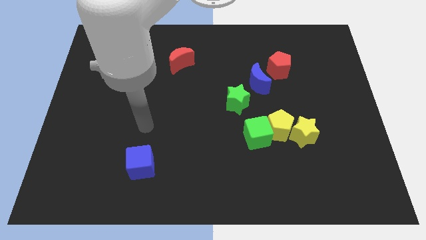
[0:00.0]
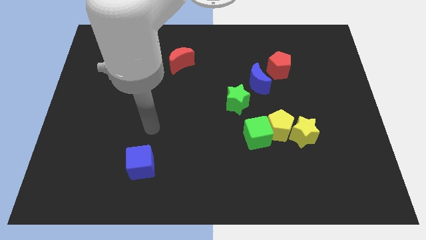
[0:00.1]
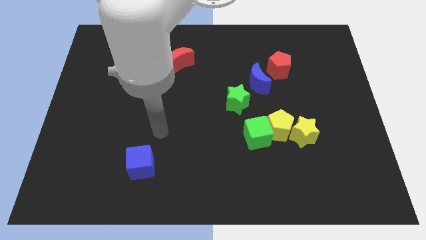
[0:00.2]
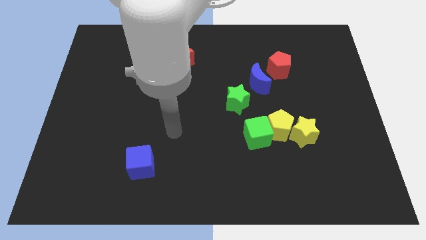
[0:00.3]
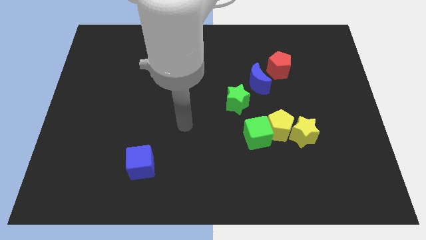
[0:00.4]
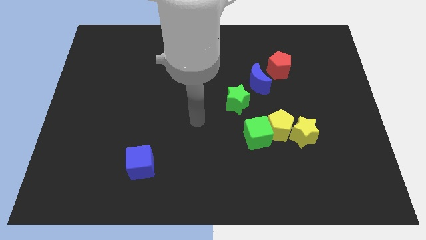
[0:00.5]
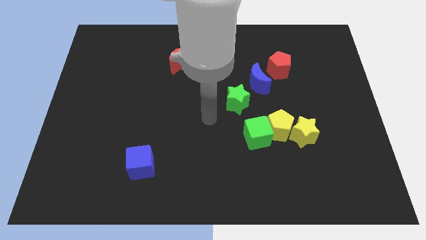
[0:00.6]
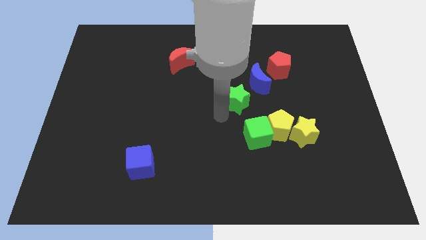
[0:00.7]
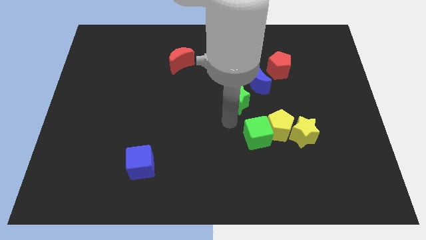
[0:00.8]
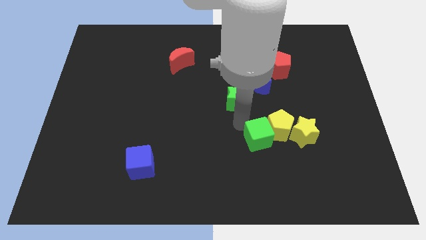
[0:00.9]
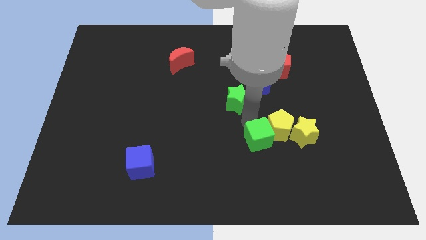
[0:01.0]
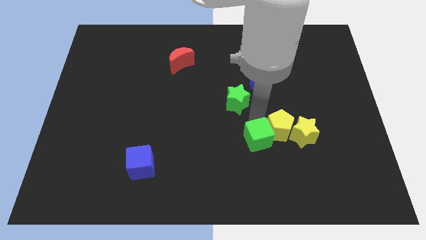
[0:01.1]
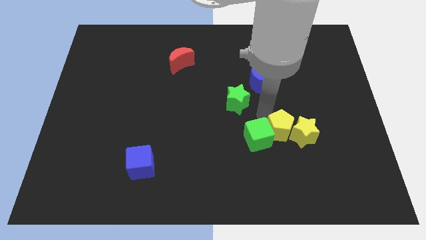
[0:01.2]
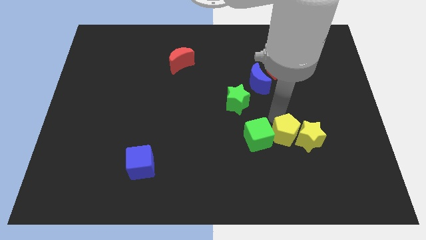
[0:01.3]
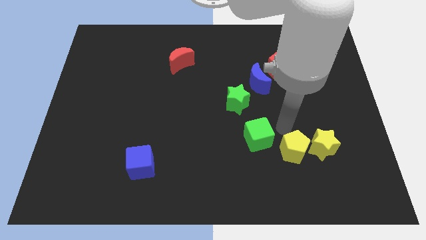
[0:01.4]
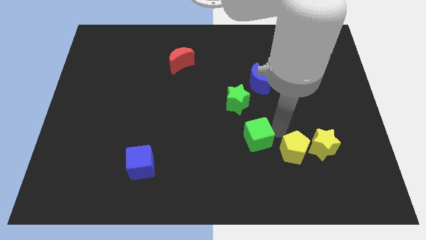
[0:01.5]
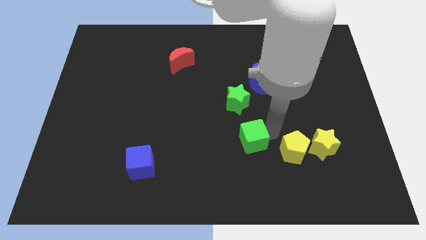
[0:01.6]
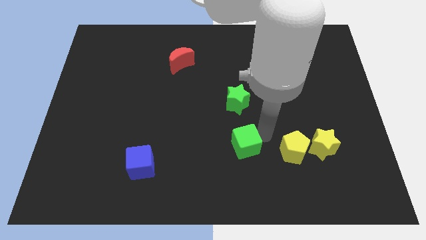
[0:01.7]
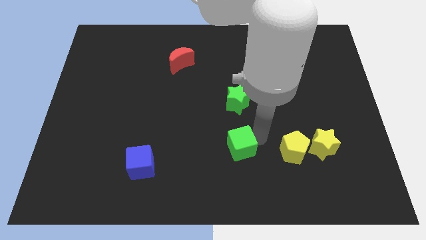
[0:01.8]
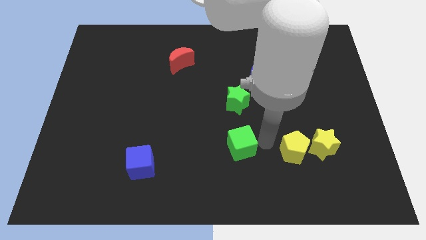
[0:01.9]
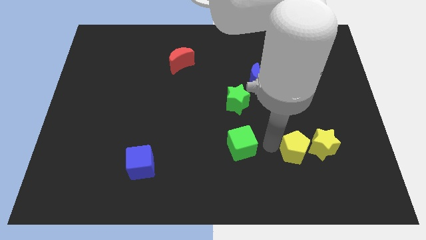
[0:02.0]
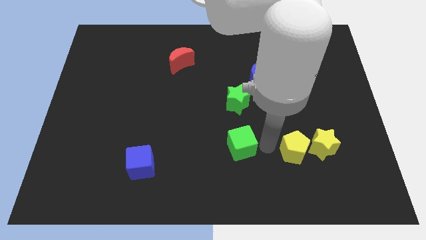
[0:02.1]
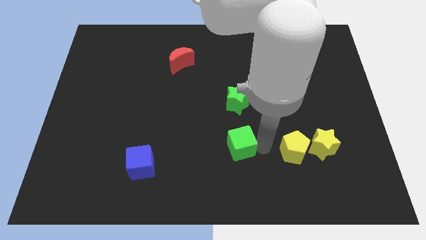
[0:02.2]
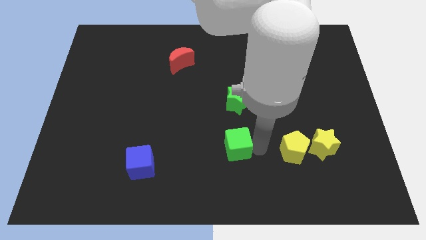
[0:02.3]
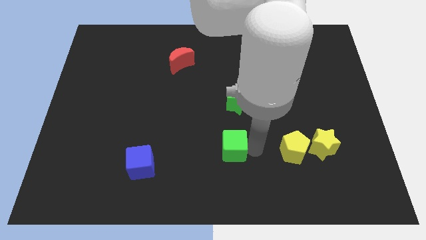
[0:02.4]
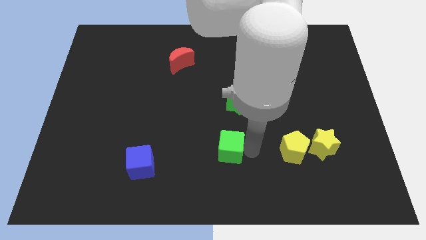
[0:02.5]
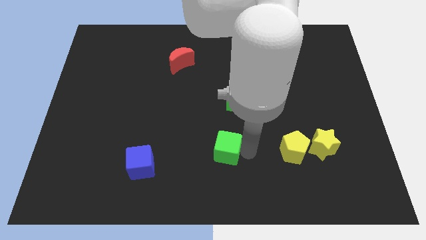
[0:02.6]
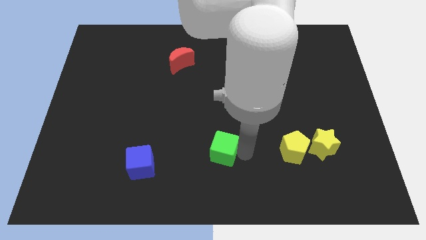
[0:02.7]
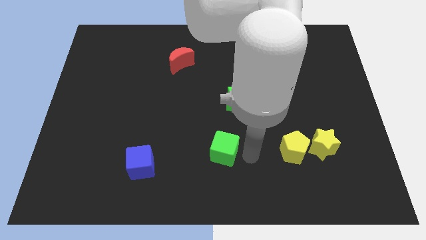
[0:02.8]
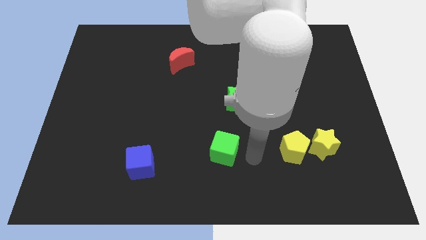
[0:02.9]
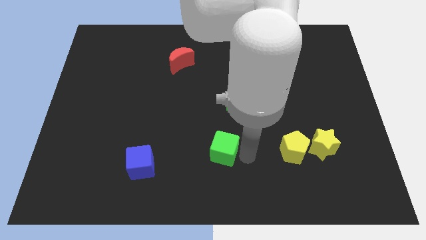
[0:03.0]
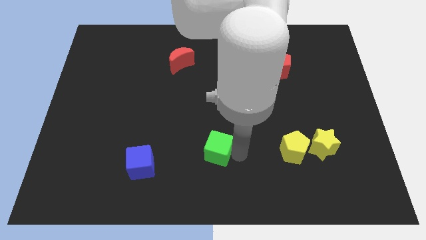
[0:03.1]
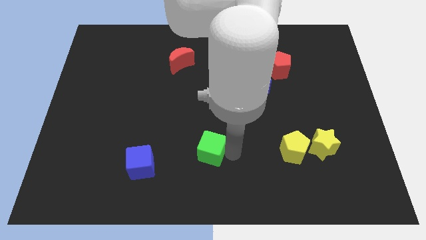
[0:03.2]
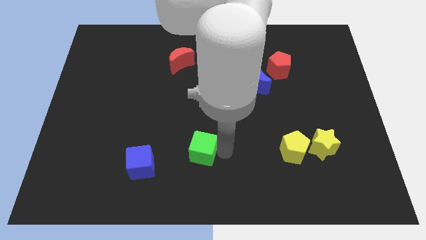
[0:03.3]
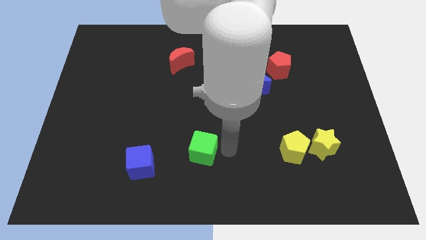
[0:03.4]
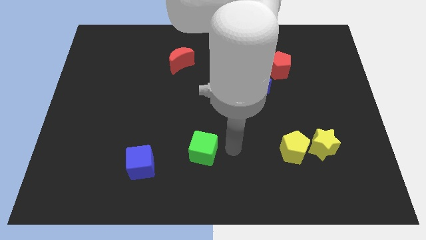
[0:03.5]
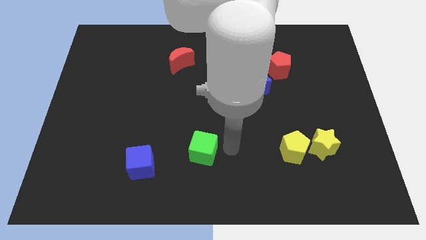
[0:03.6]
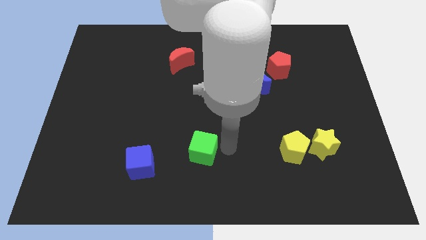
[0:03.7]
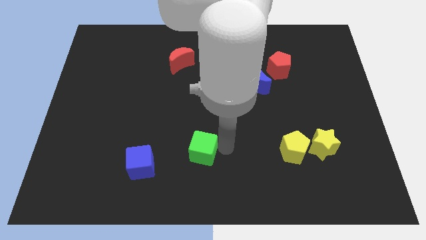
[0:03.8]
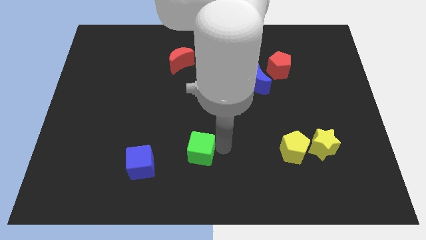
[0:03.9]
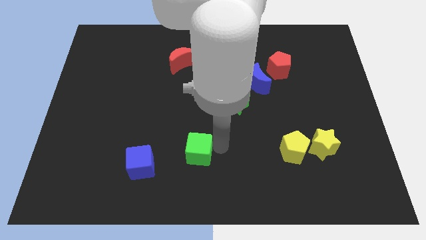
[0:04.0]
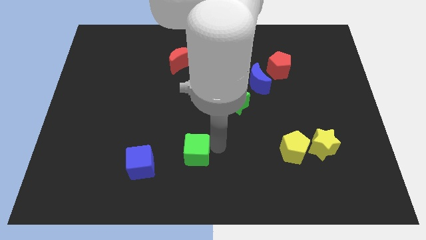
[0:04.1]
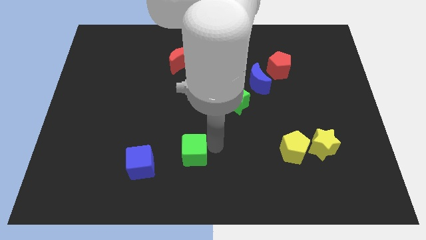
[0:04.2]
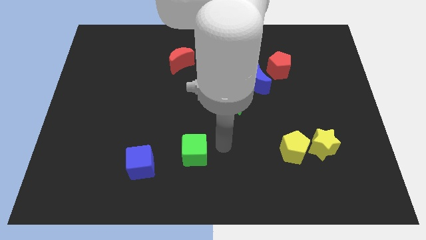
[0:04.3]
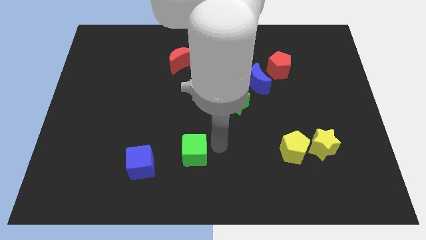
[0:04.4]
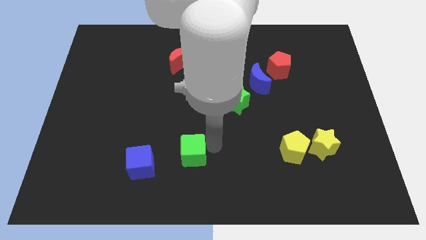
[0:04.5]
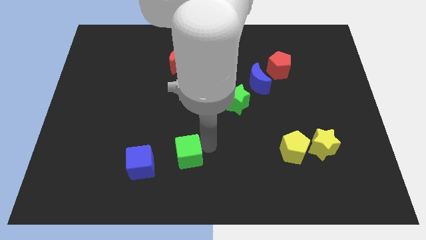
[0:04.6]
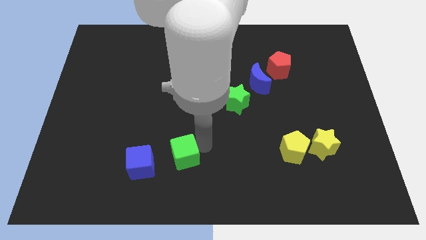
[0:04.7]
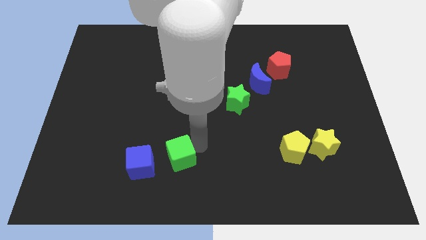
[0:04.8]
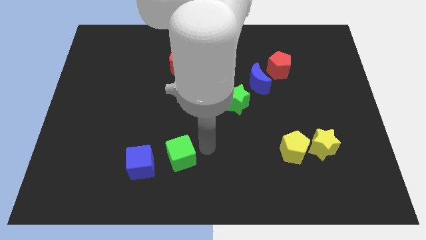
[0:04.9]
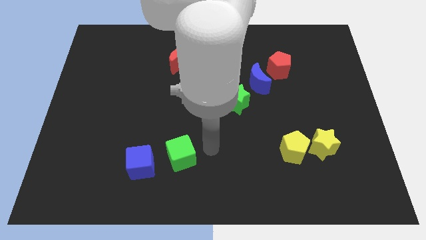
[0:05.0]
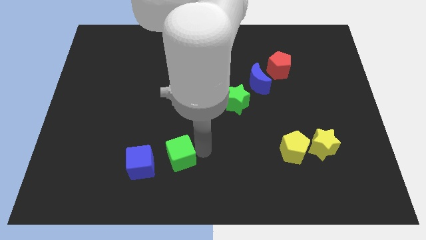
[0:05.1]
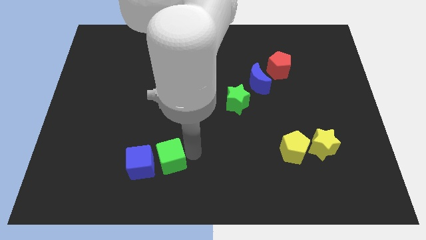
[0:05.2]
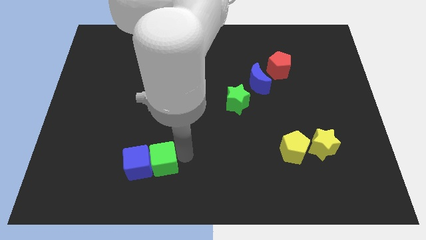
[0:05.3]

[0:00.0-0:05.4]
put the green cube next to the blue cube

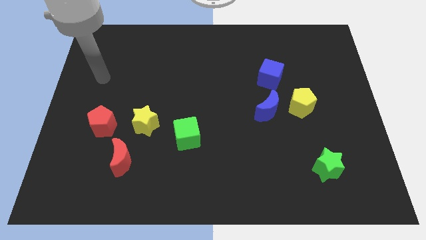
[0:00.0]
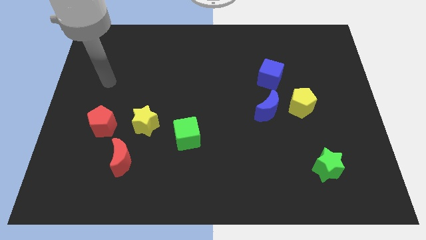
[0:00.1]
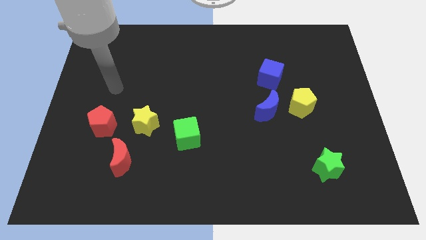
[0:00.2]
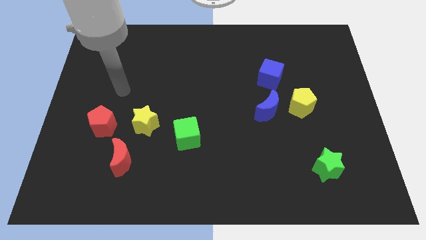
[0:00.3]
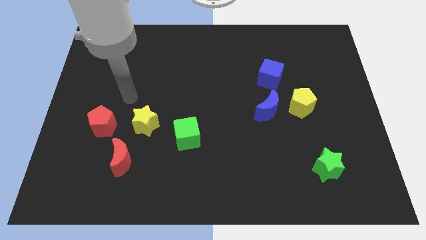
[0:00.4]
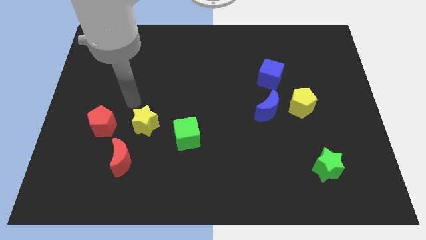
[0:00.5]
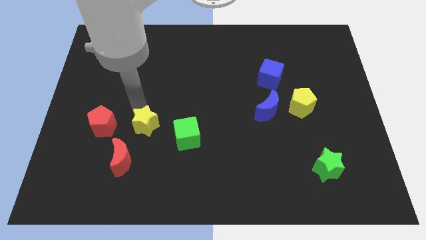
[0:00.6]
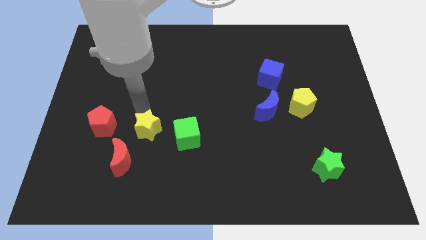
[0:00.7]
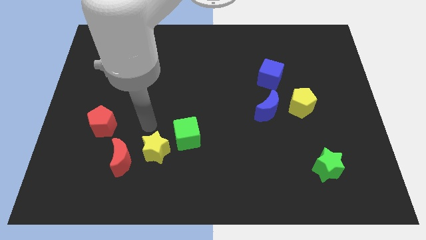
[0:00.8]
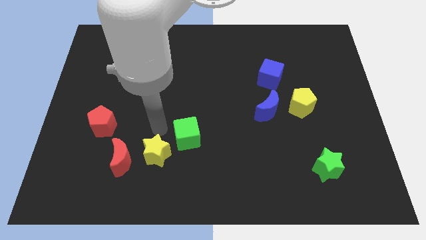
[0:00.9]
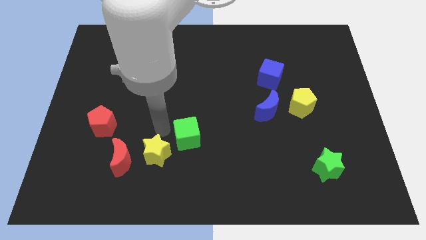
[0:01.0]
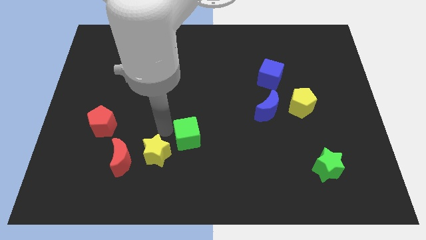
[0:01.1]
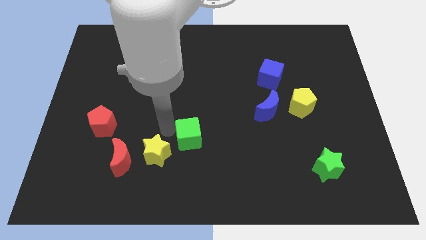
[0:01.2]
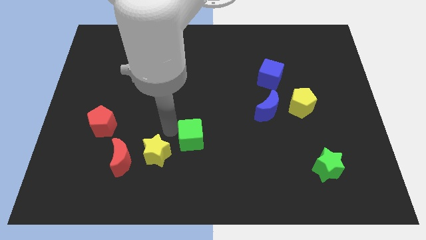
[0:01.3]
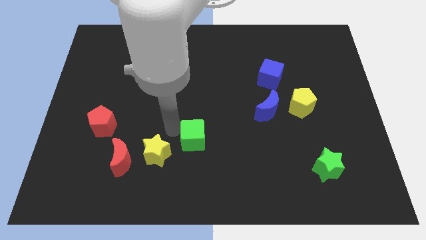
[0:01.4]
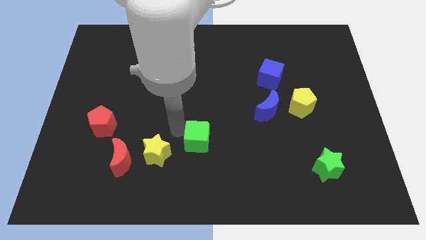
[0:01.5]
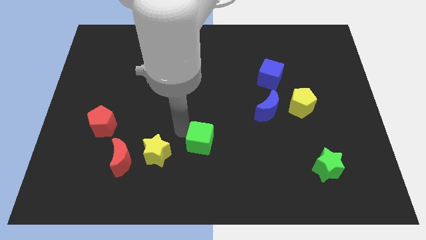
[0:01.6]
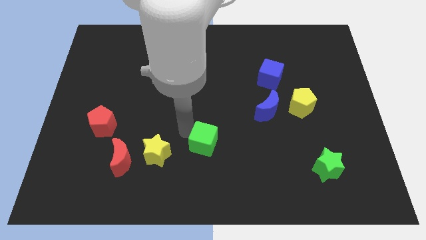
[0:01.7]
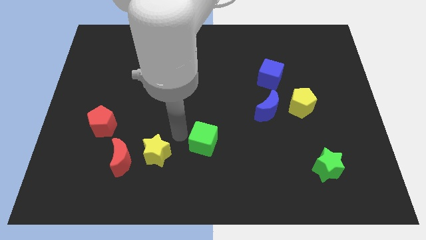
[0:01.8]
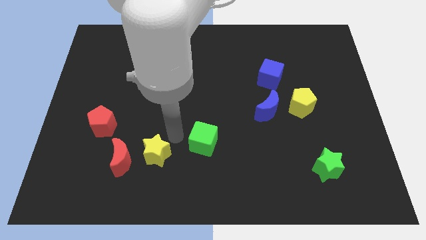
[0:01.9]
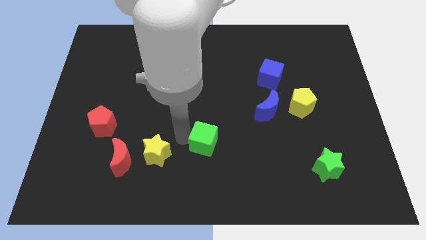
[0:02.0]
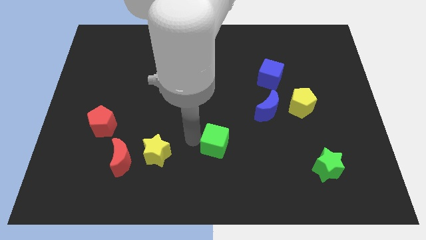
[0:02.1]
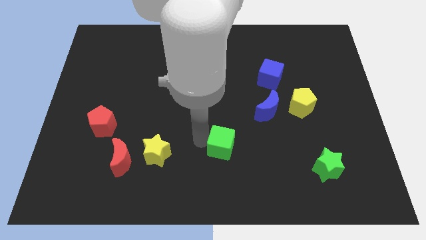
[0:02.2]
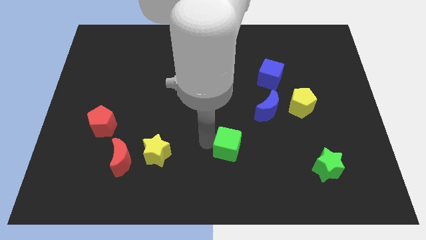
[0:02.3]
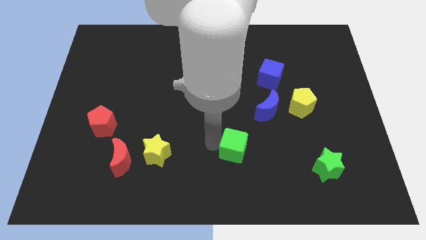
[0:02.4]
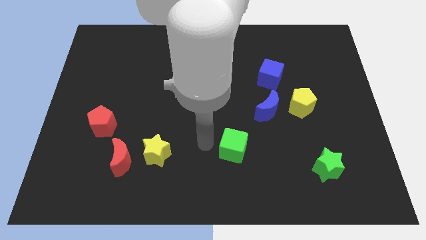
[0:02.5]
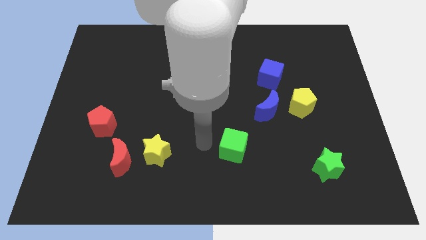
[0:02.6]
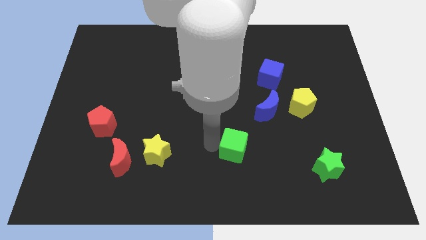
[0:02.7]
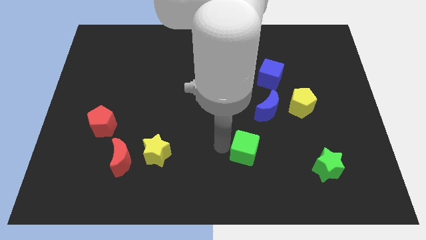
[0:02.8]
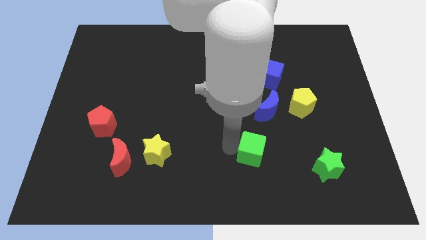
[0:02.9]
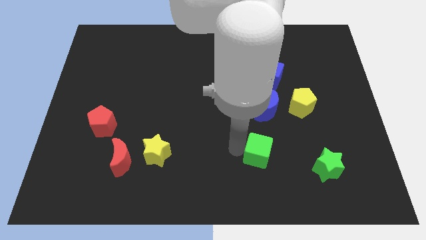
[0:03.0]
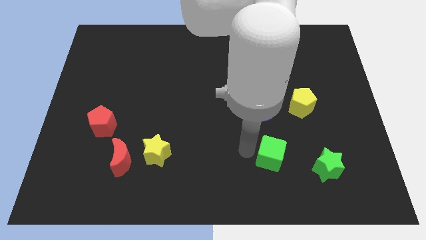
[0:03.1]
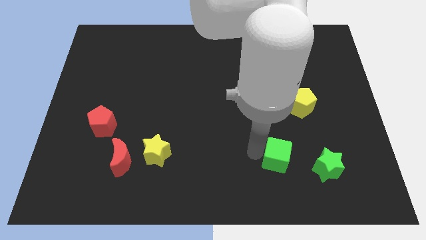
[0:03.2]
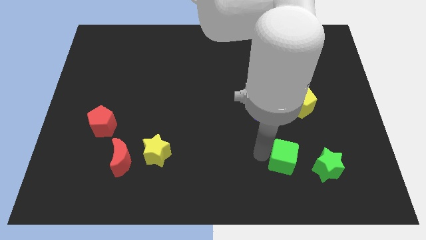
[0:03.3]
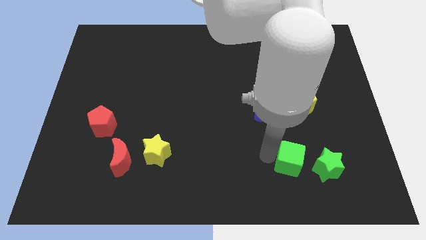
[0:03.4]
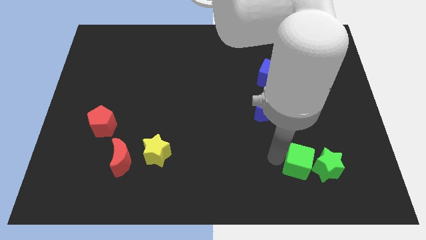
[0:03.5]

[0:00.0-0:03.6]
put the green cube close to the green star
